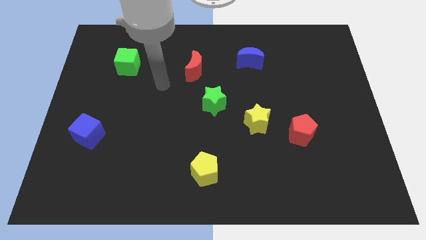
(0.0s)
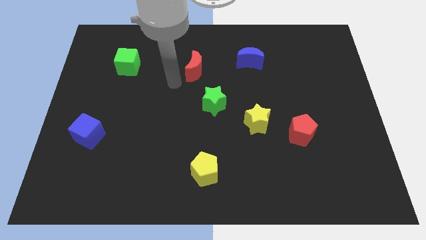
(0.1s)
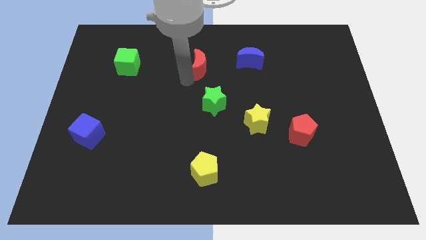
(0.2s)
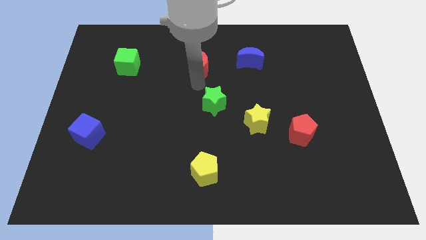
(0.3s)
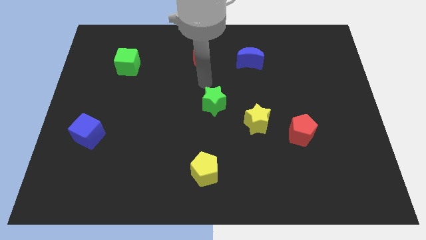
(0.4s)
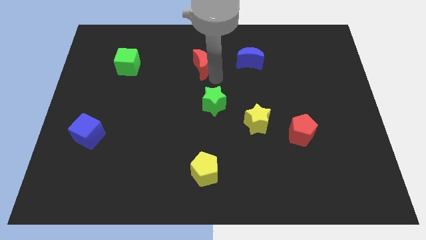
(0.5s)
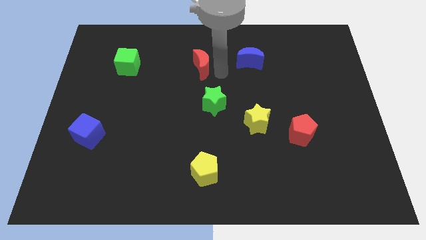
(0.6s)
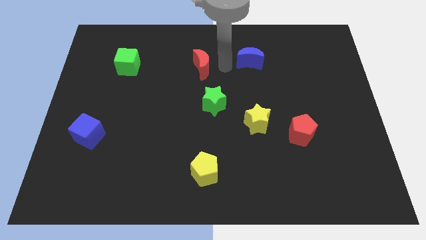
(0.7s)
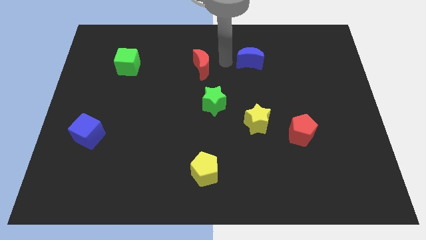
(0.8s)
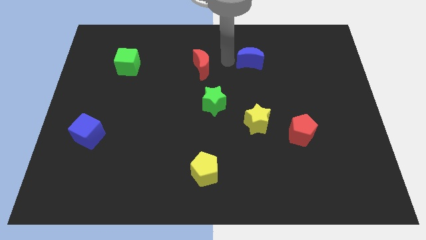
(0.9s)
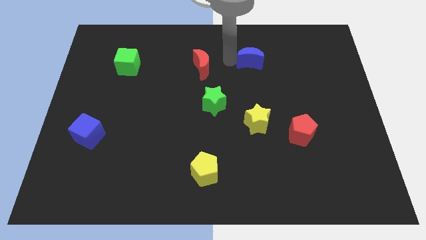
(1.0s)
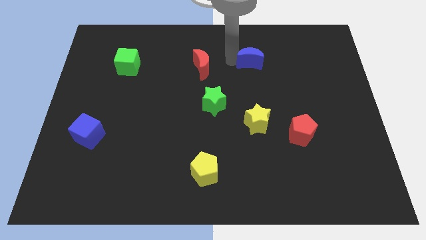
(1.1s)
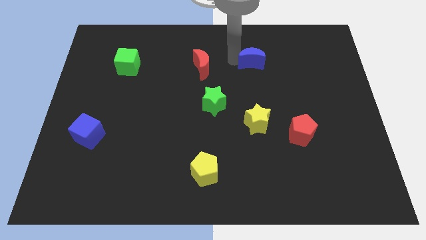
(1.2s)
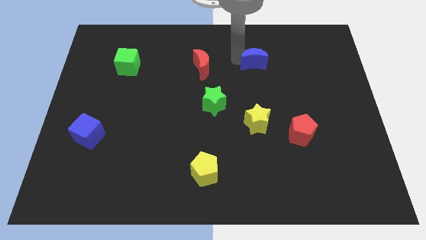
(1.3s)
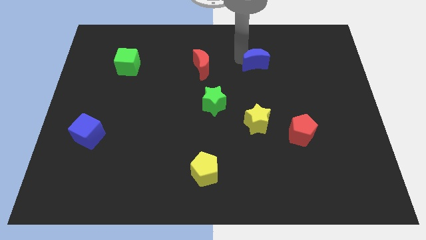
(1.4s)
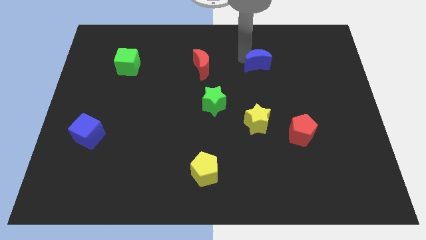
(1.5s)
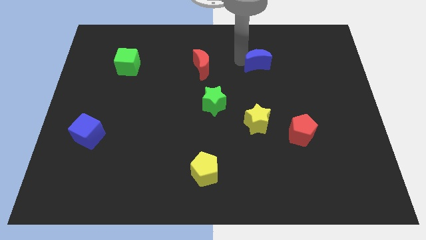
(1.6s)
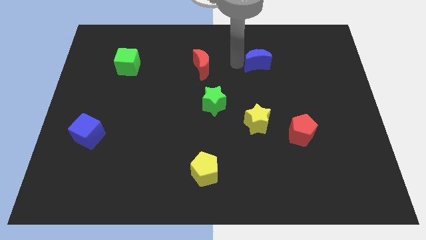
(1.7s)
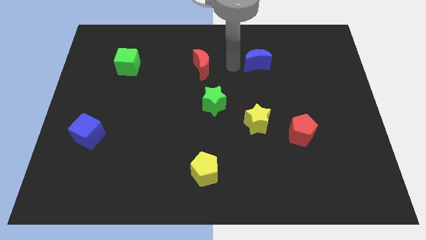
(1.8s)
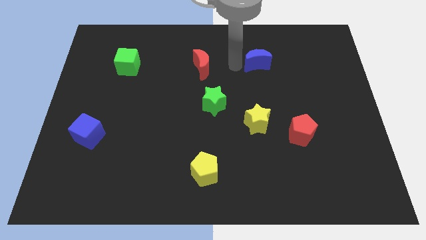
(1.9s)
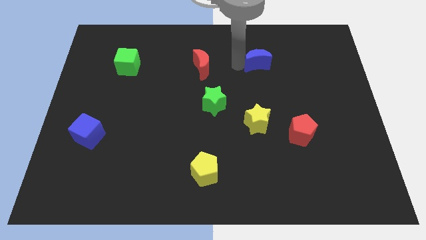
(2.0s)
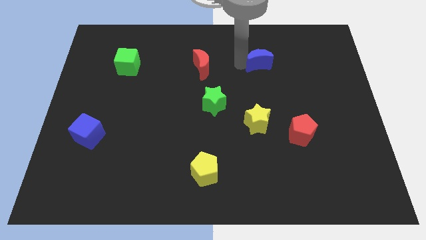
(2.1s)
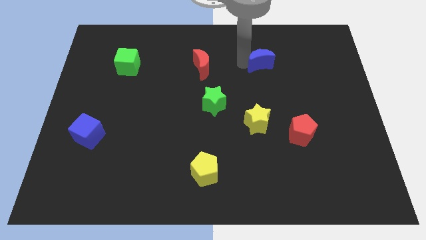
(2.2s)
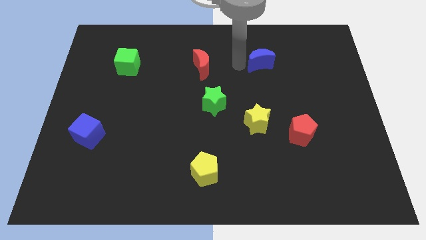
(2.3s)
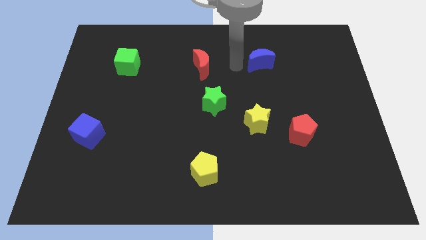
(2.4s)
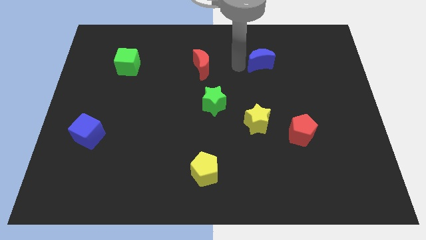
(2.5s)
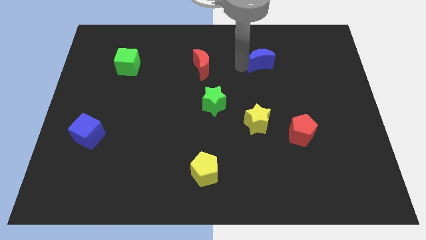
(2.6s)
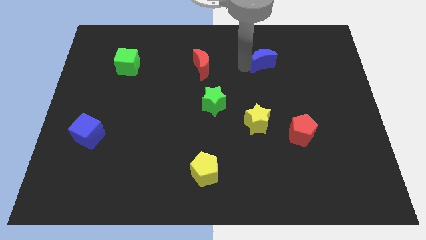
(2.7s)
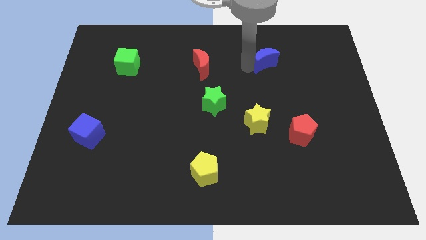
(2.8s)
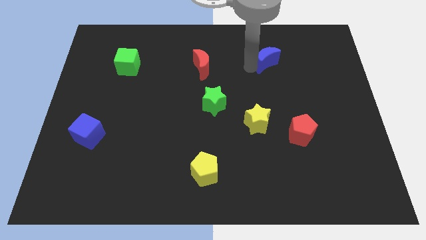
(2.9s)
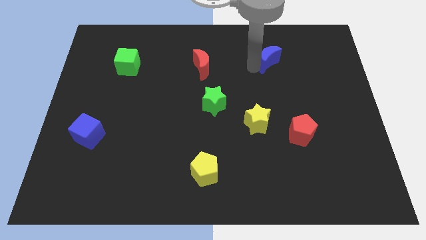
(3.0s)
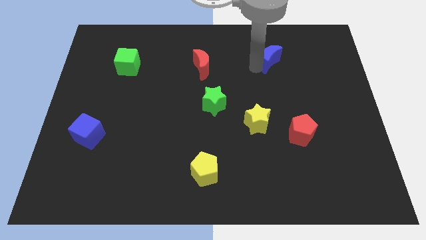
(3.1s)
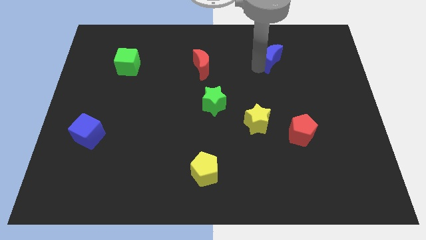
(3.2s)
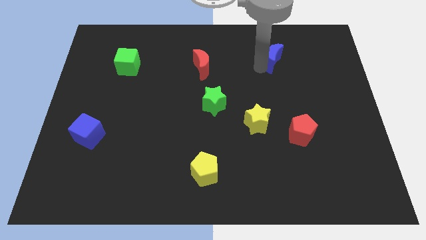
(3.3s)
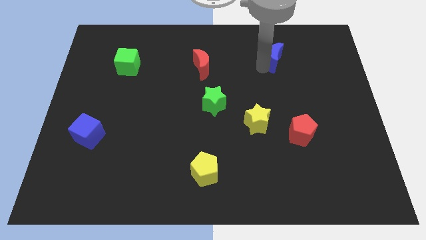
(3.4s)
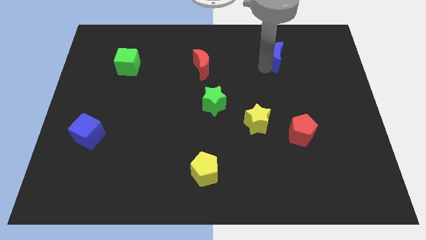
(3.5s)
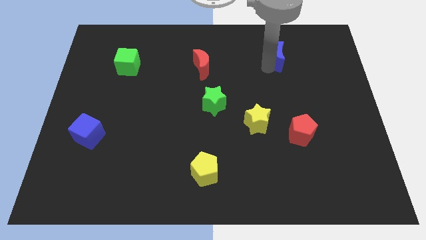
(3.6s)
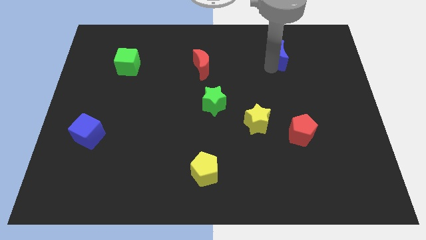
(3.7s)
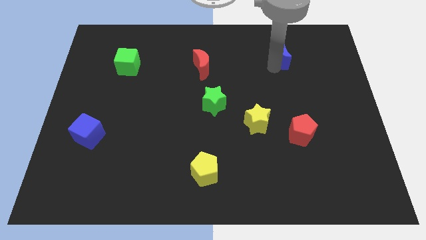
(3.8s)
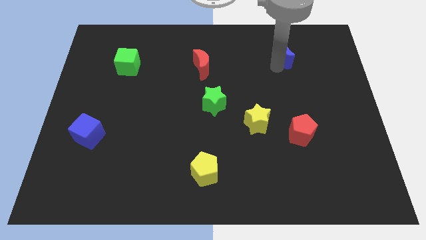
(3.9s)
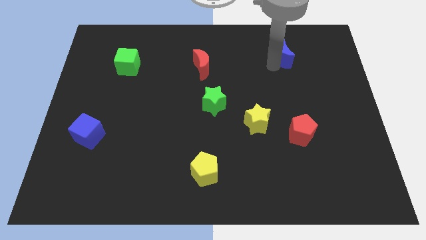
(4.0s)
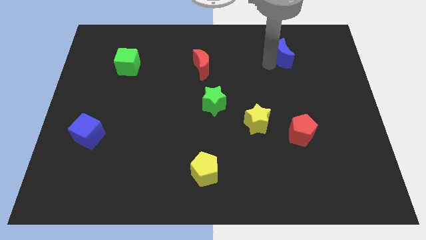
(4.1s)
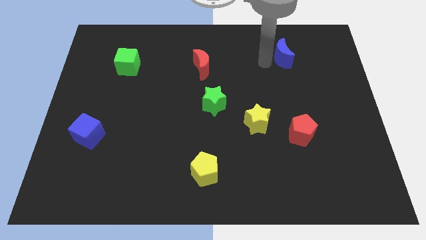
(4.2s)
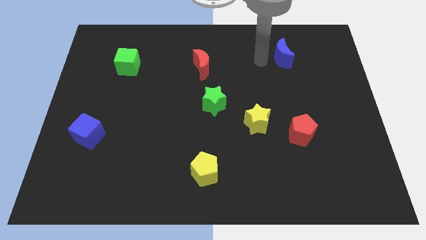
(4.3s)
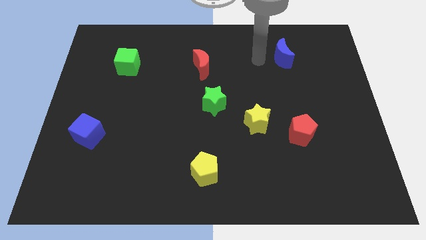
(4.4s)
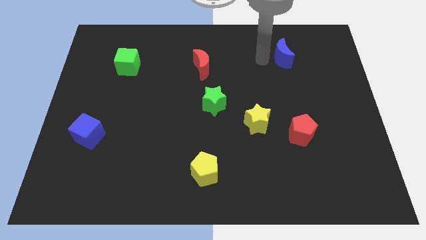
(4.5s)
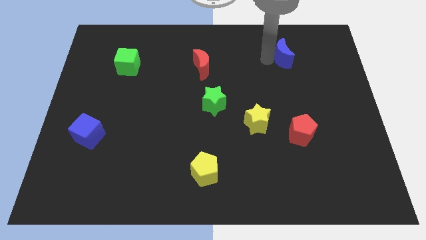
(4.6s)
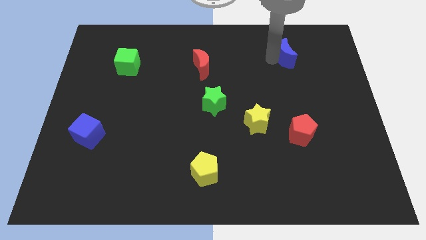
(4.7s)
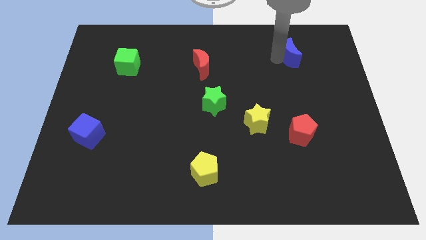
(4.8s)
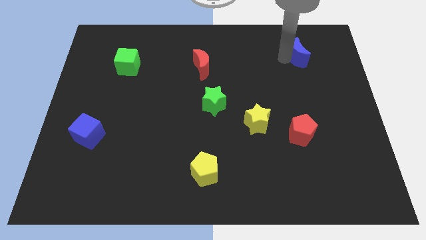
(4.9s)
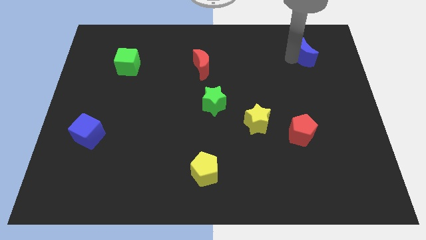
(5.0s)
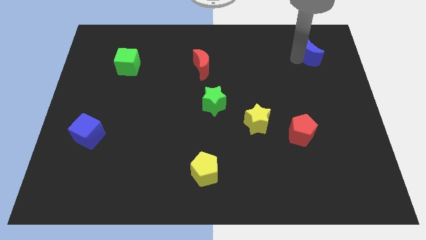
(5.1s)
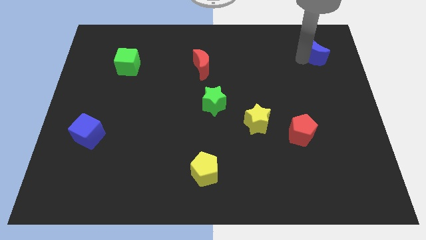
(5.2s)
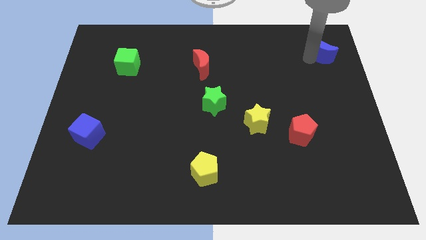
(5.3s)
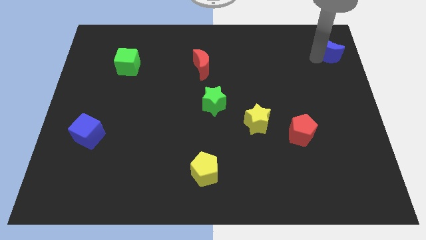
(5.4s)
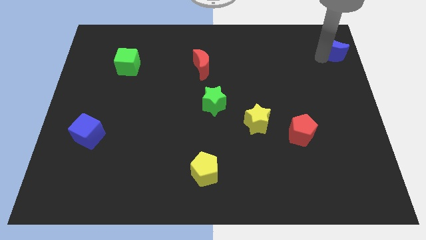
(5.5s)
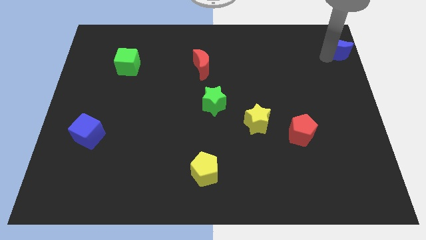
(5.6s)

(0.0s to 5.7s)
put the blue moon to the upper right corner

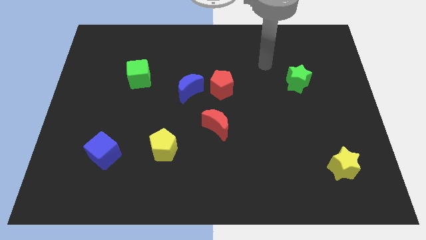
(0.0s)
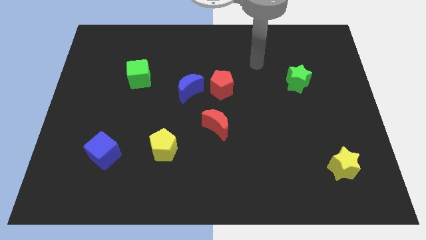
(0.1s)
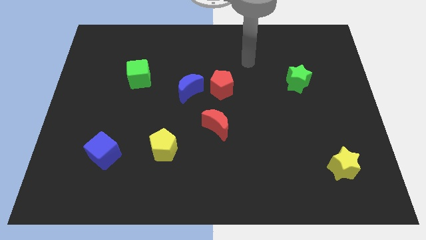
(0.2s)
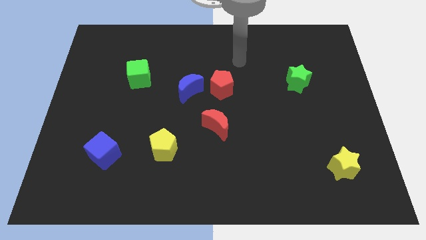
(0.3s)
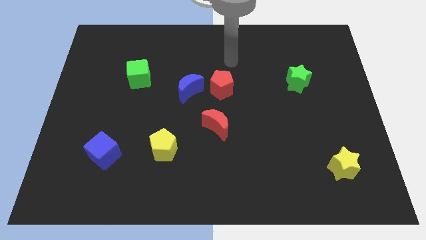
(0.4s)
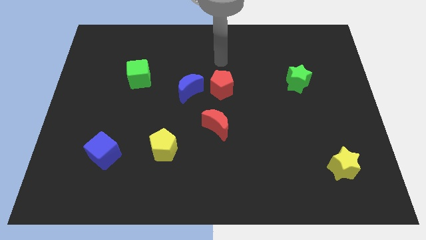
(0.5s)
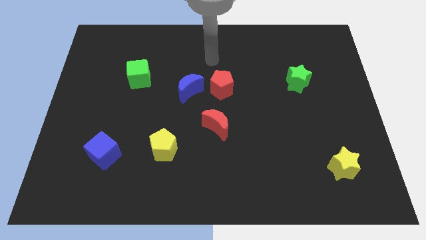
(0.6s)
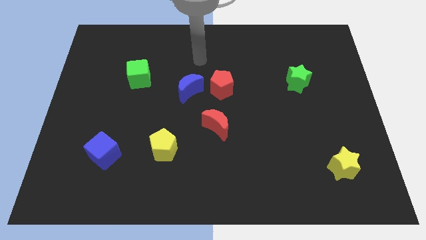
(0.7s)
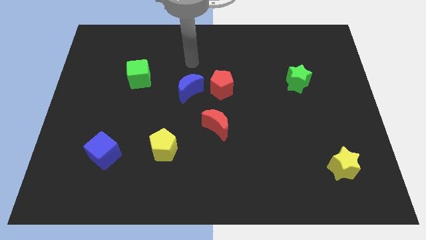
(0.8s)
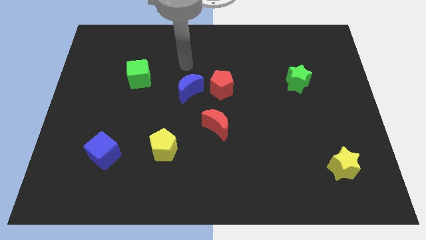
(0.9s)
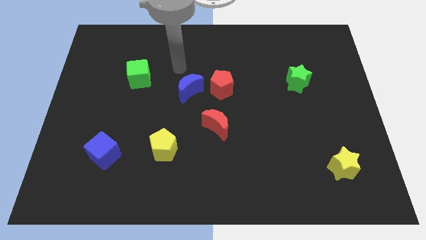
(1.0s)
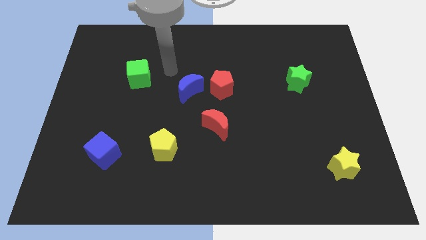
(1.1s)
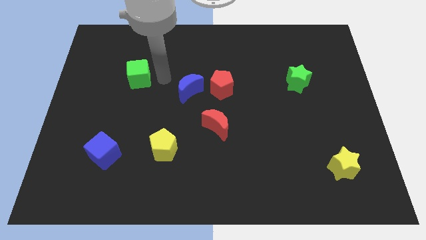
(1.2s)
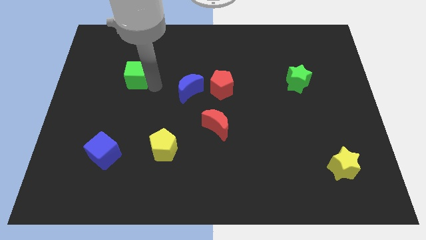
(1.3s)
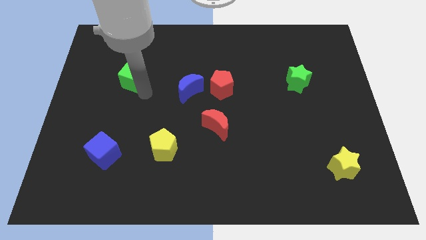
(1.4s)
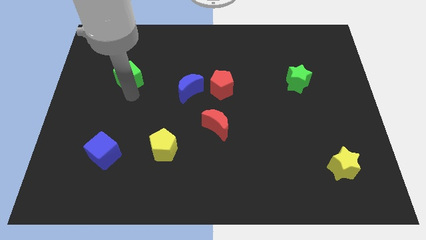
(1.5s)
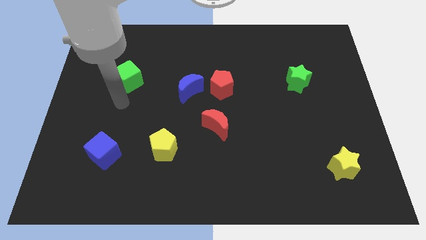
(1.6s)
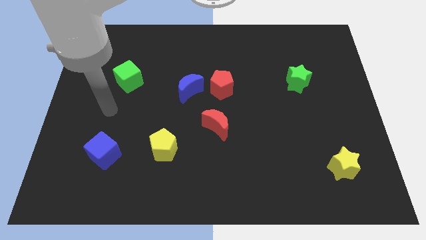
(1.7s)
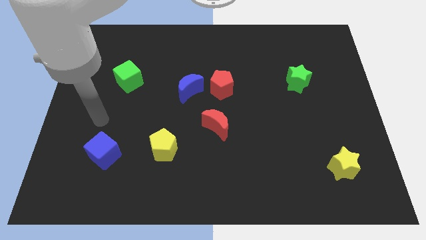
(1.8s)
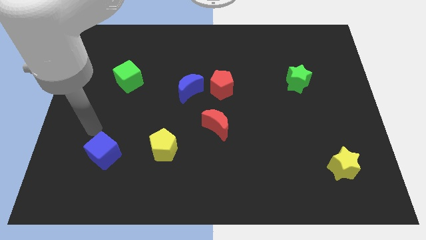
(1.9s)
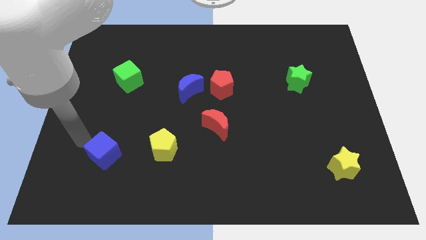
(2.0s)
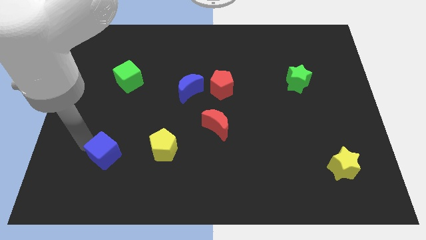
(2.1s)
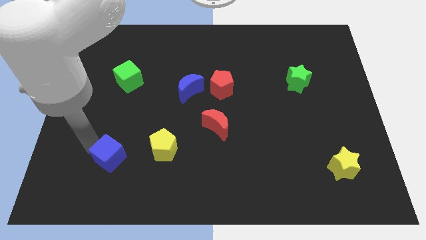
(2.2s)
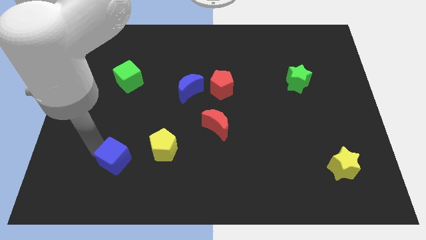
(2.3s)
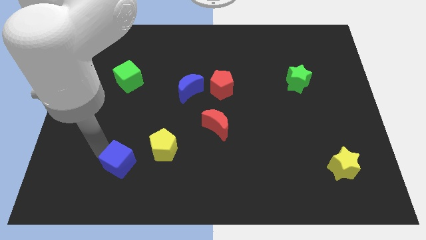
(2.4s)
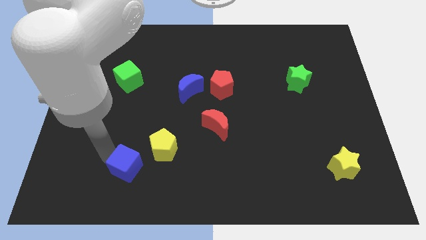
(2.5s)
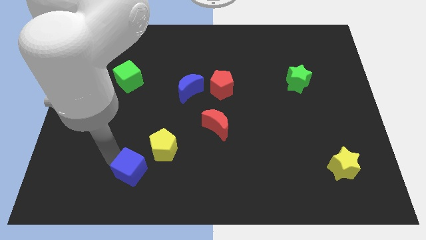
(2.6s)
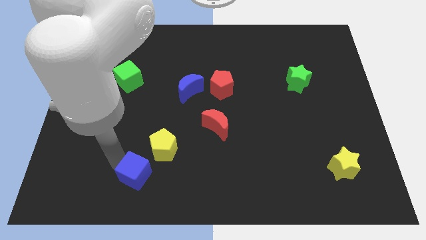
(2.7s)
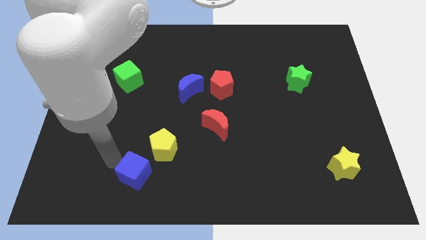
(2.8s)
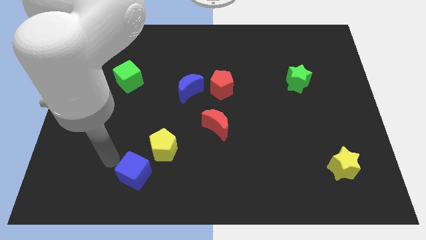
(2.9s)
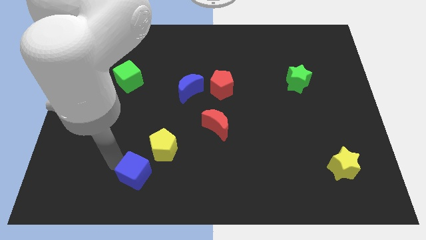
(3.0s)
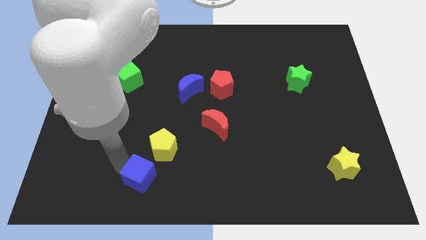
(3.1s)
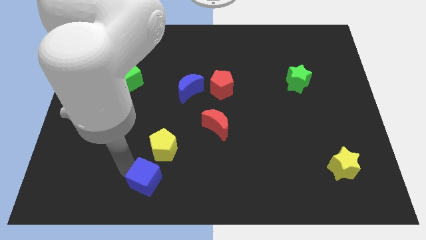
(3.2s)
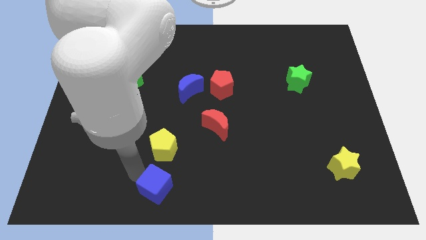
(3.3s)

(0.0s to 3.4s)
push the blue cube to the bottom side
